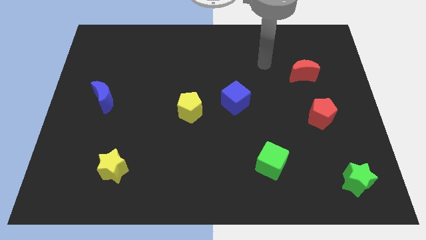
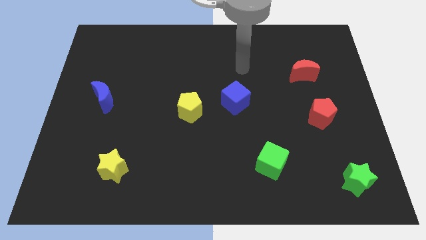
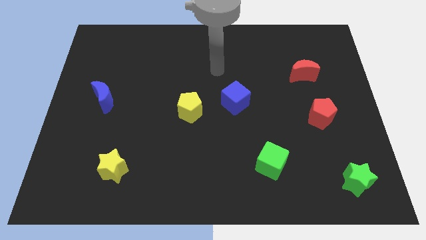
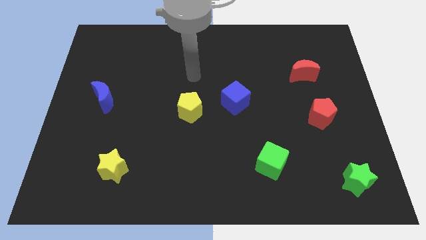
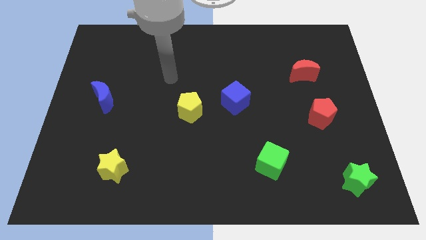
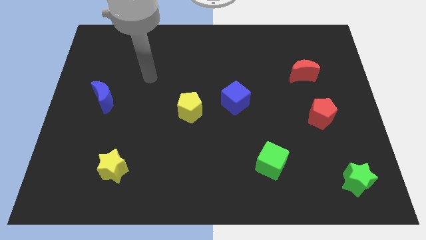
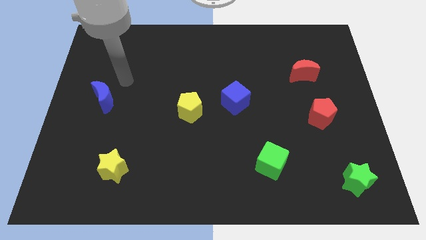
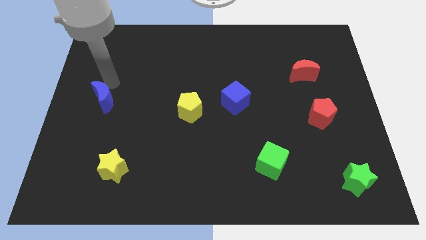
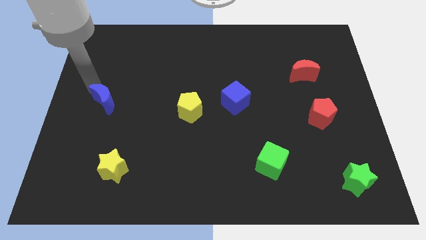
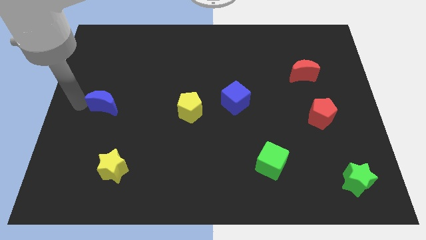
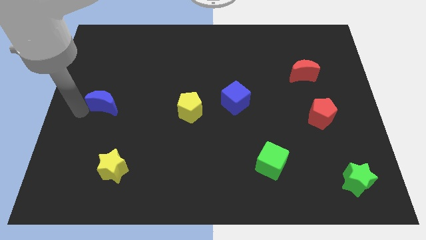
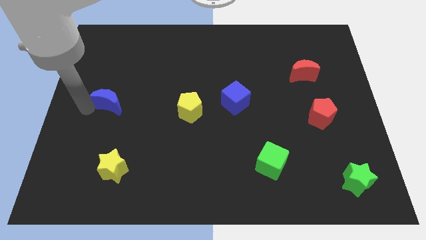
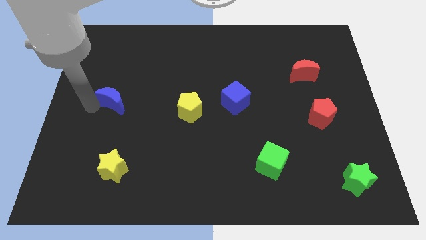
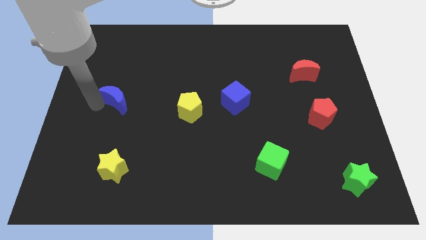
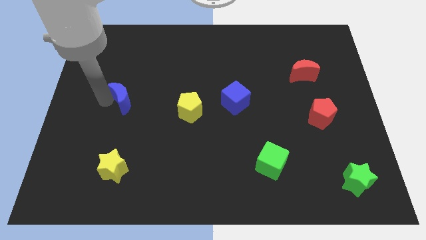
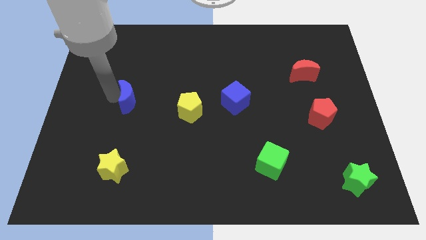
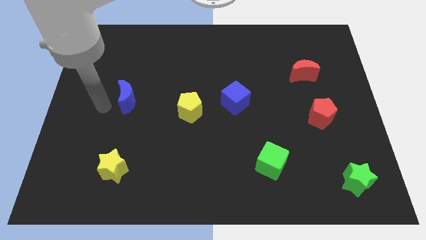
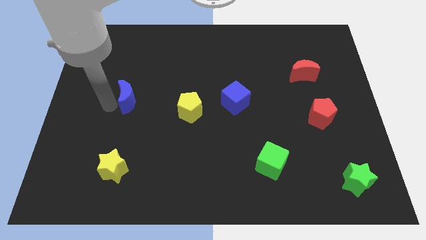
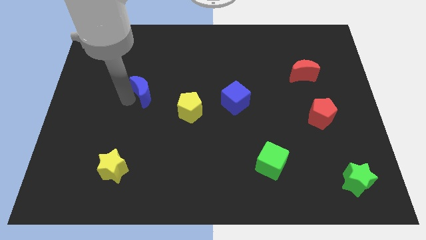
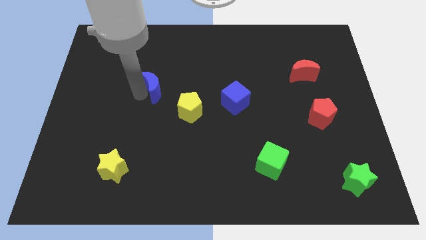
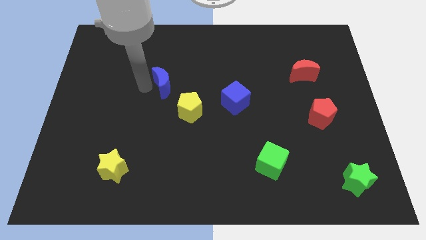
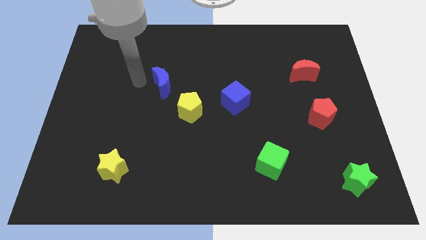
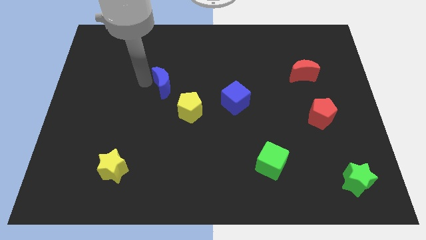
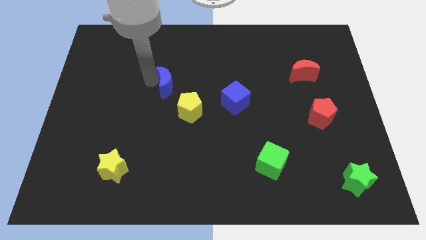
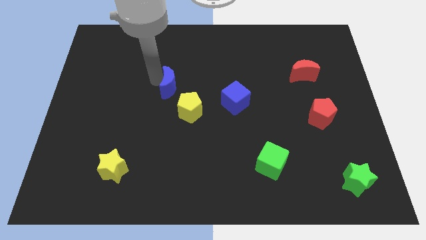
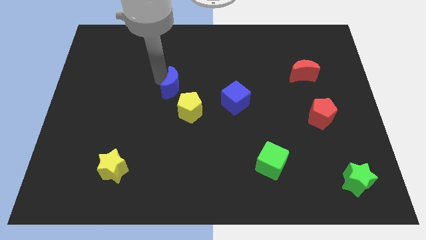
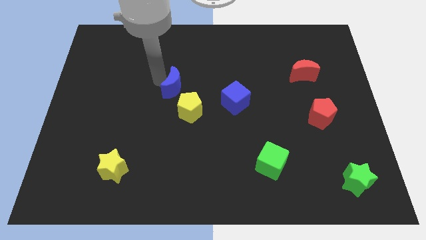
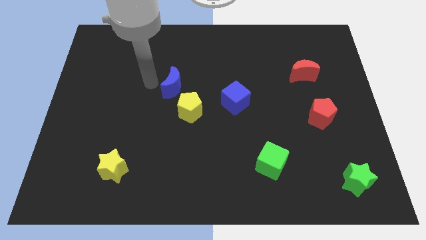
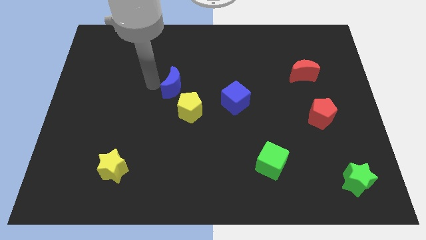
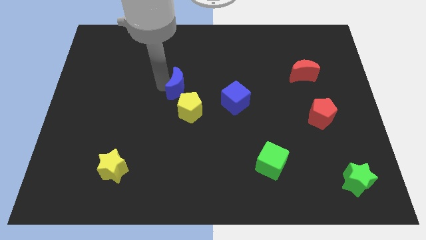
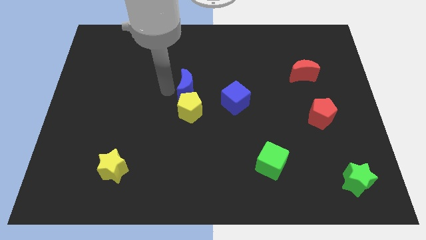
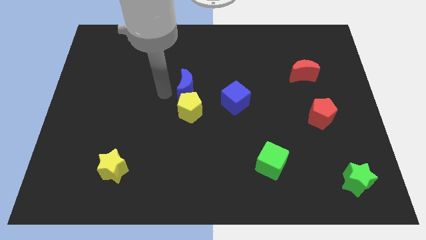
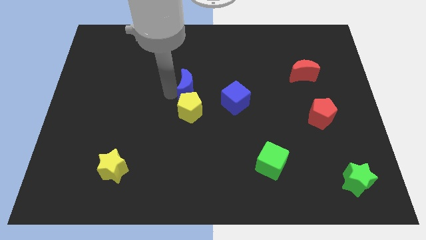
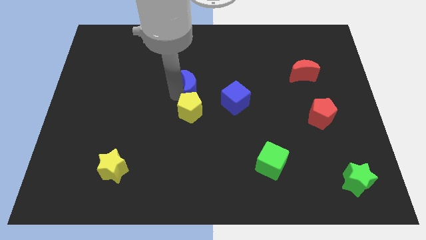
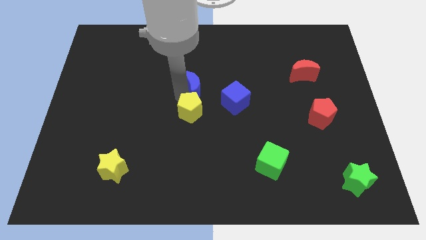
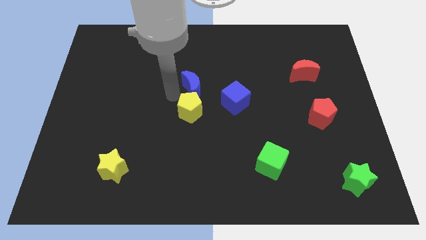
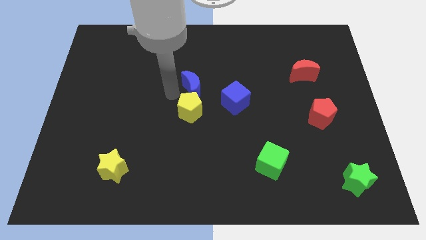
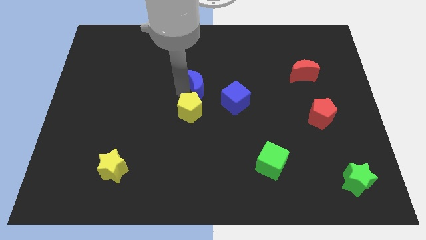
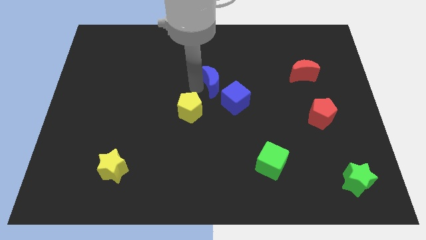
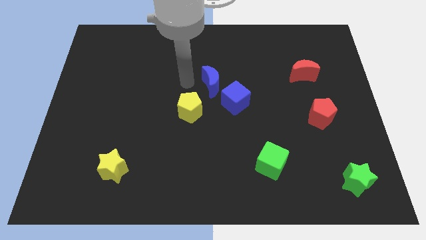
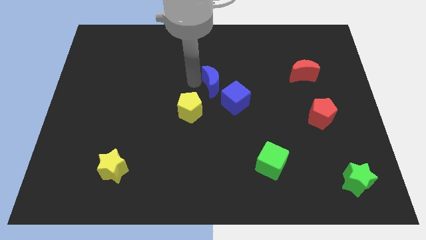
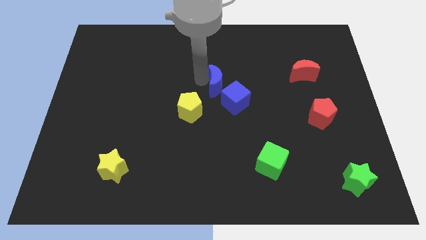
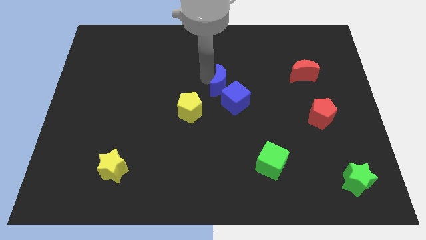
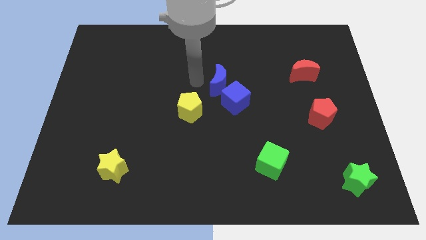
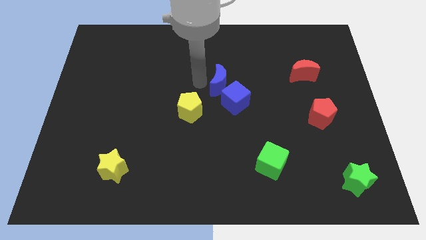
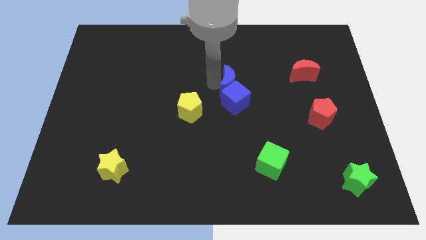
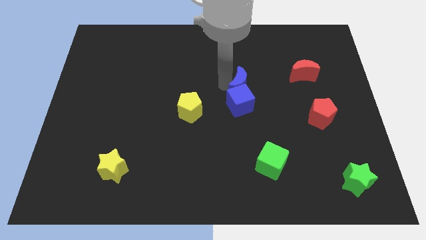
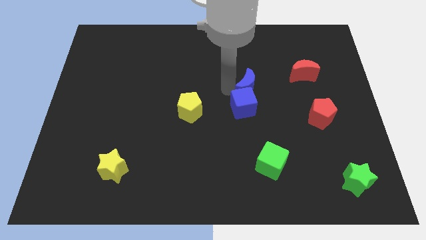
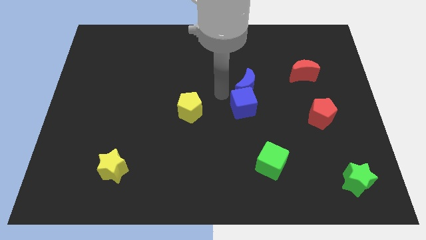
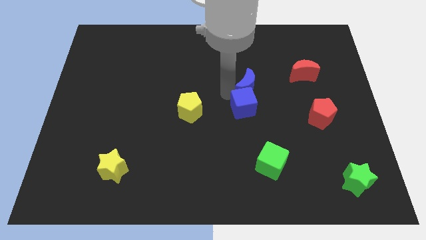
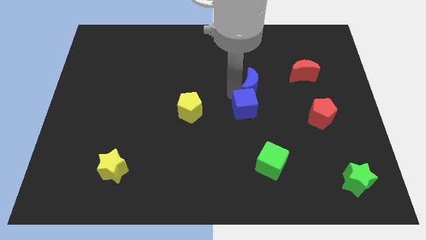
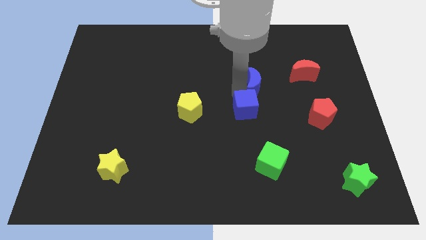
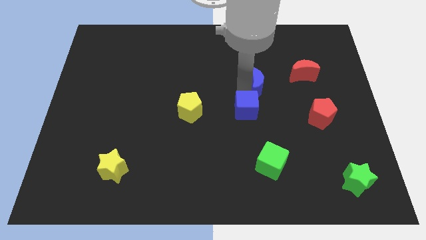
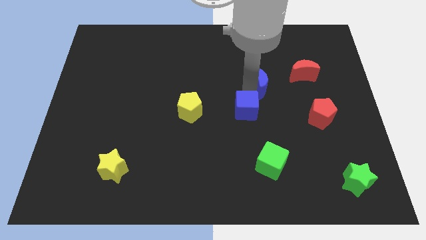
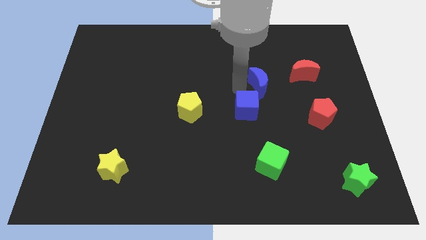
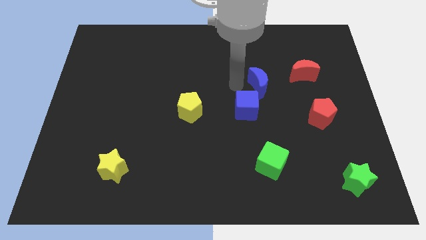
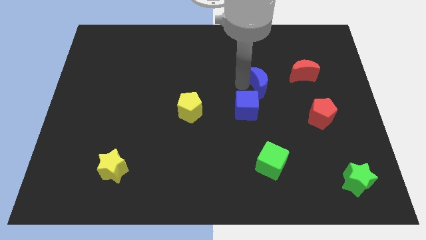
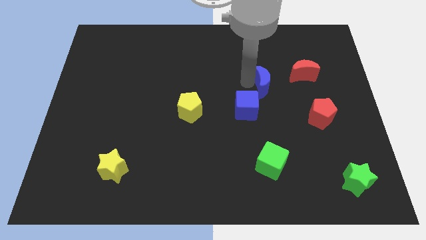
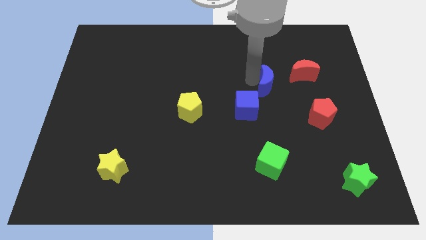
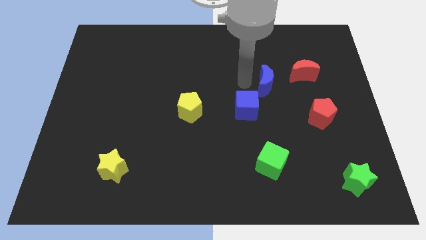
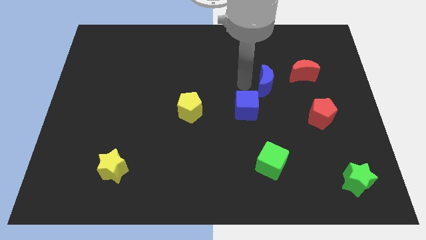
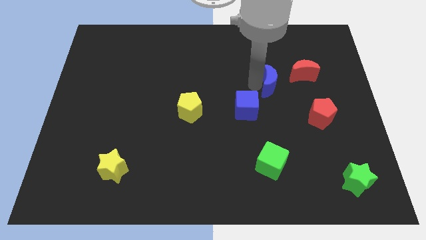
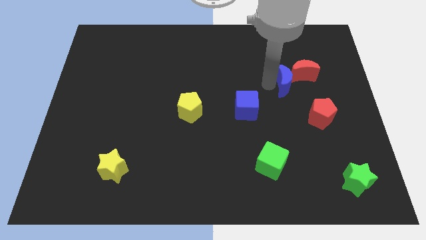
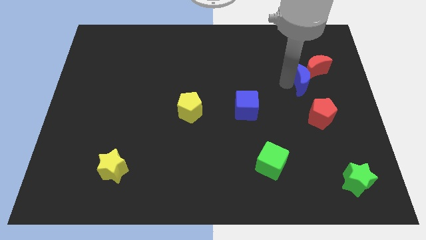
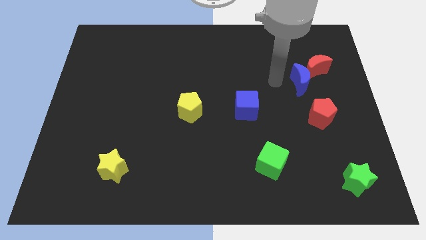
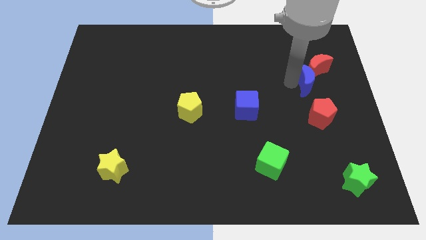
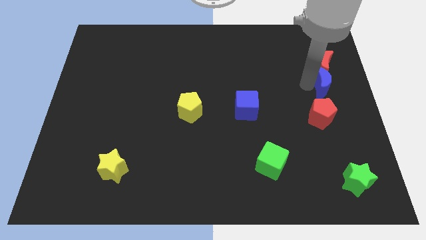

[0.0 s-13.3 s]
slide the blue moon to the bottom right of the red moon
